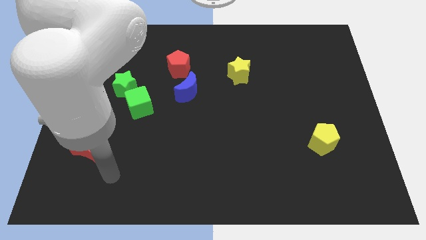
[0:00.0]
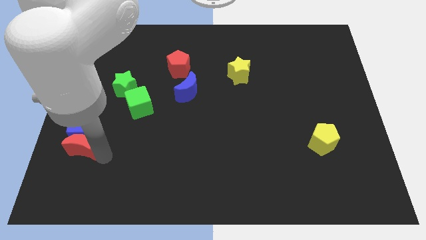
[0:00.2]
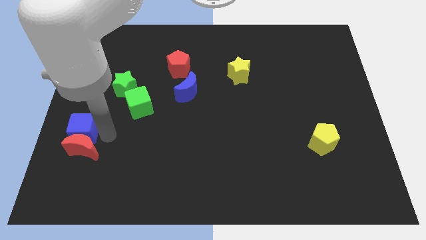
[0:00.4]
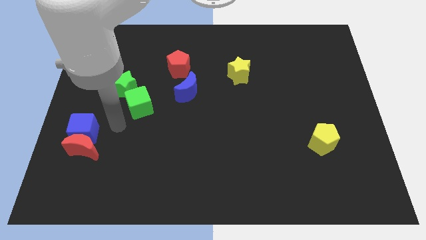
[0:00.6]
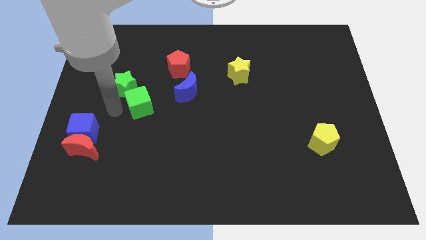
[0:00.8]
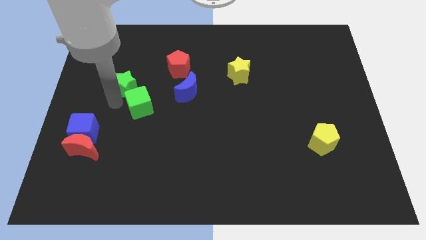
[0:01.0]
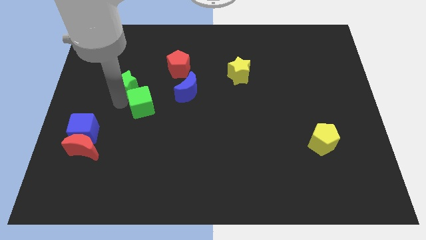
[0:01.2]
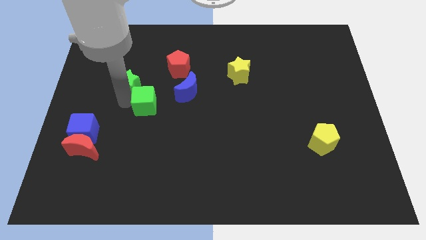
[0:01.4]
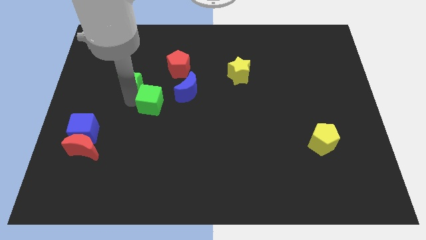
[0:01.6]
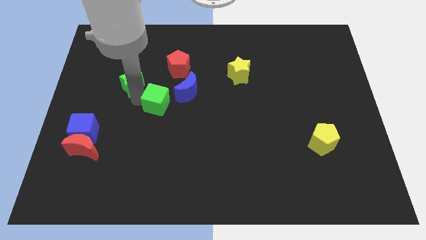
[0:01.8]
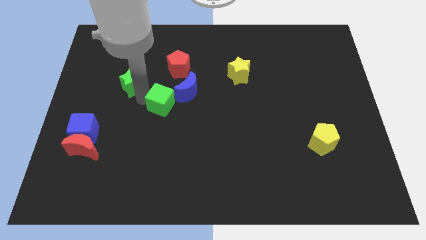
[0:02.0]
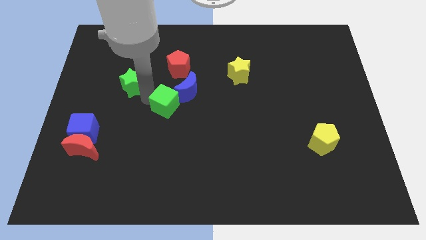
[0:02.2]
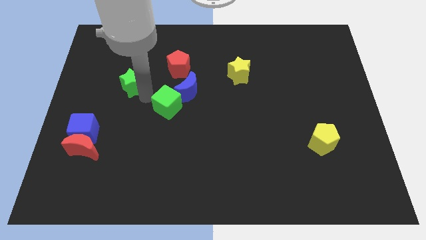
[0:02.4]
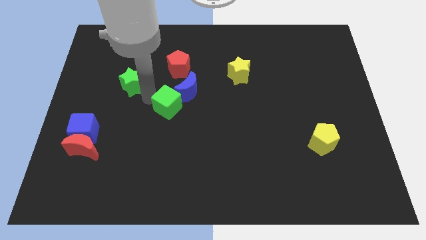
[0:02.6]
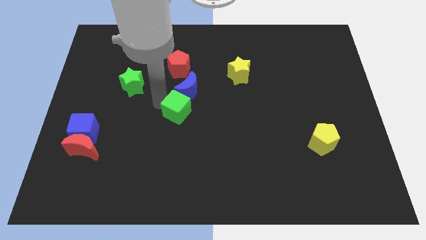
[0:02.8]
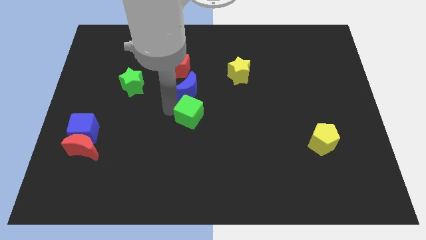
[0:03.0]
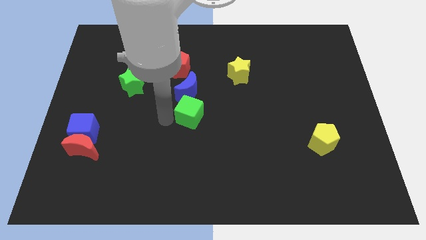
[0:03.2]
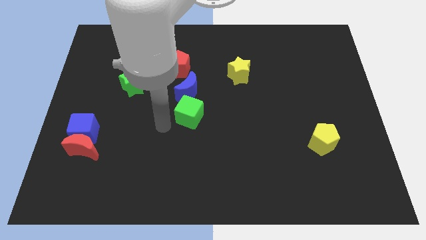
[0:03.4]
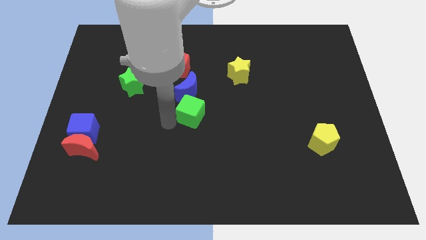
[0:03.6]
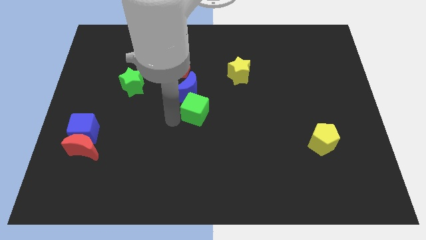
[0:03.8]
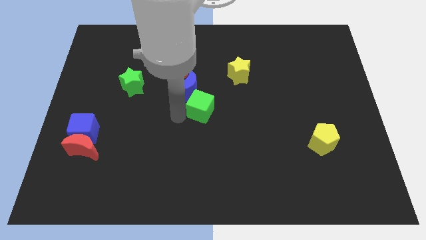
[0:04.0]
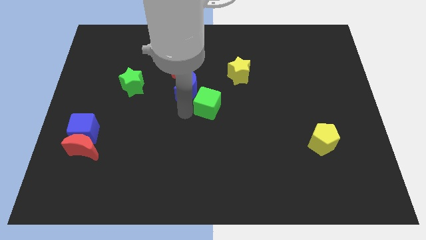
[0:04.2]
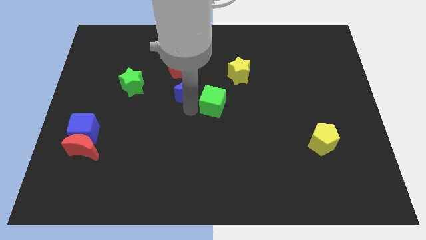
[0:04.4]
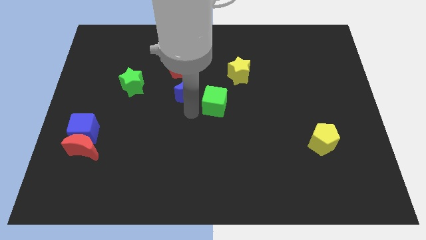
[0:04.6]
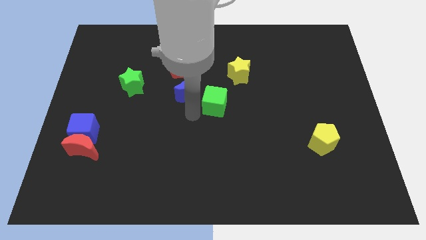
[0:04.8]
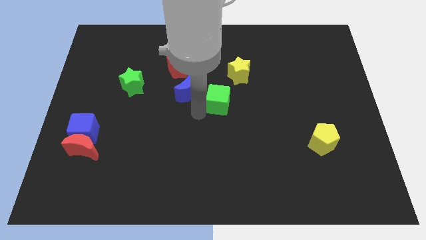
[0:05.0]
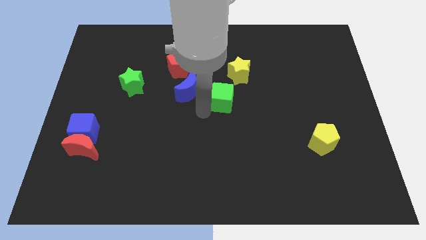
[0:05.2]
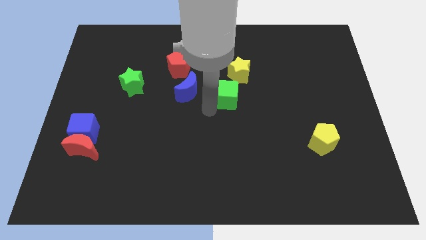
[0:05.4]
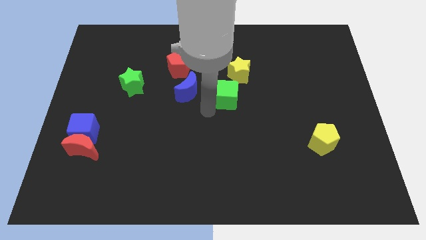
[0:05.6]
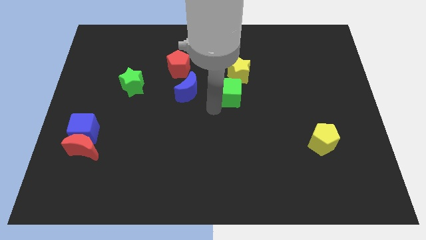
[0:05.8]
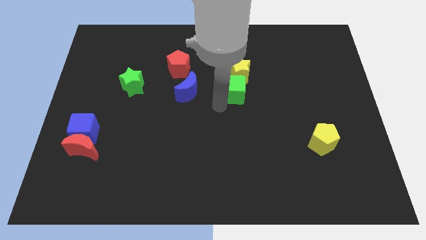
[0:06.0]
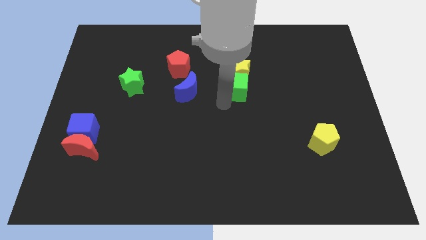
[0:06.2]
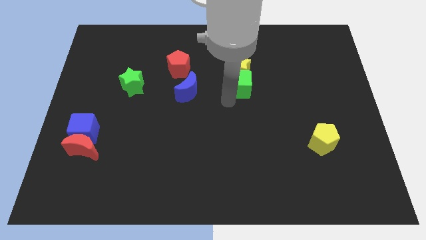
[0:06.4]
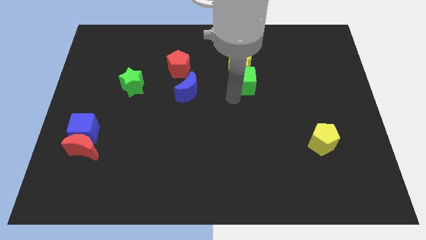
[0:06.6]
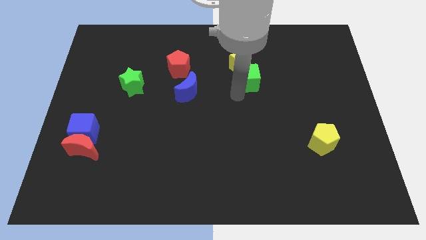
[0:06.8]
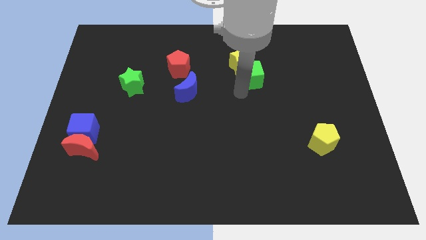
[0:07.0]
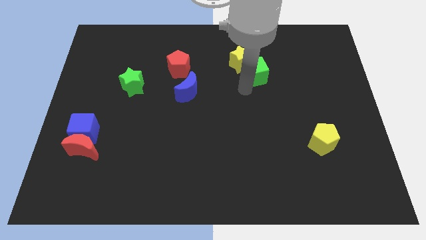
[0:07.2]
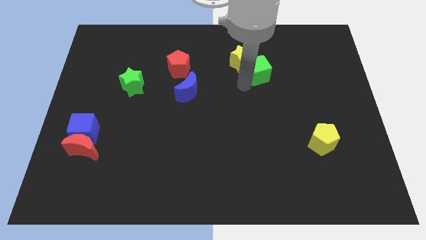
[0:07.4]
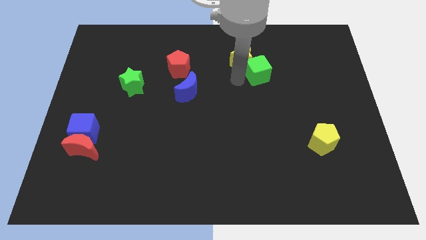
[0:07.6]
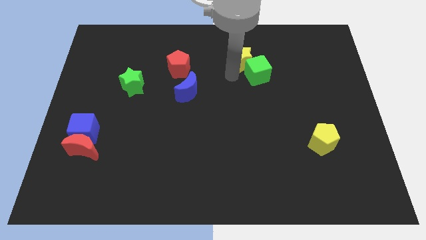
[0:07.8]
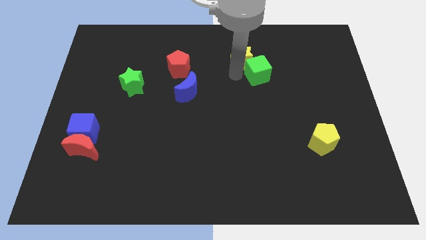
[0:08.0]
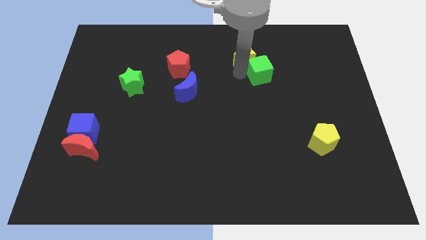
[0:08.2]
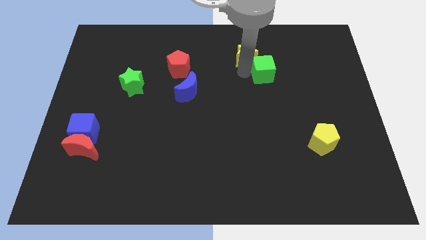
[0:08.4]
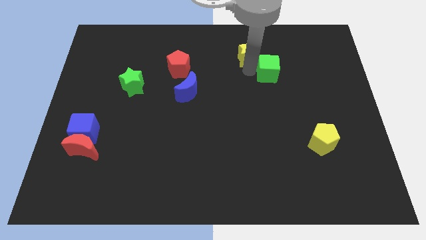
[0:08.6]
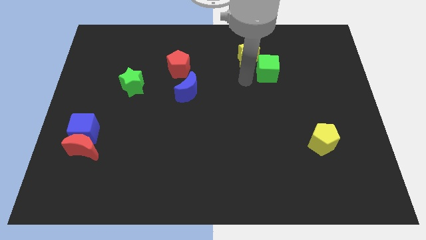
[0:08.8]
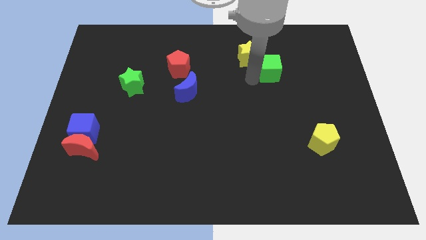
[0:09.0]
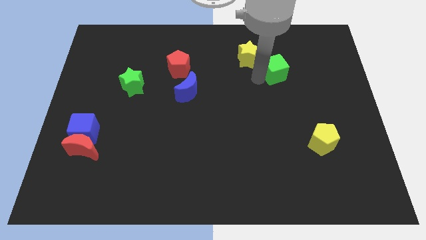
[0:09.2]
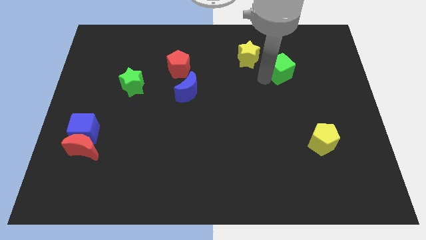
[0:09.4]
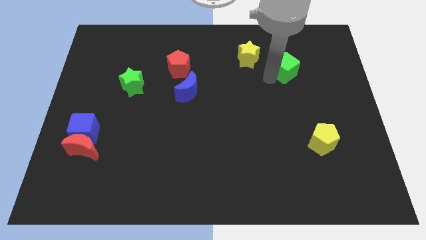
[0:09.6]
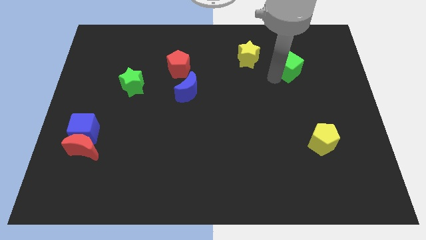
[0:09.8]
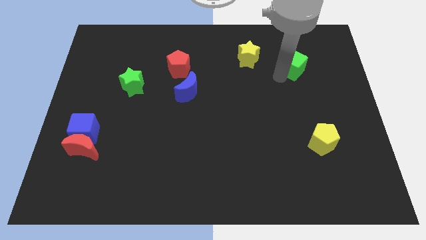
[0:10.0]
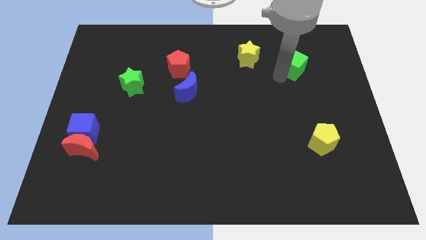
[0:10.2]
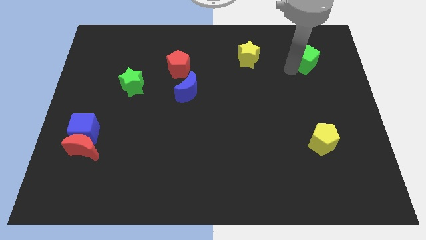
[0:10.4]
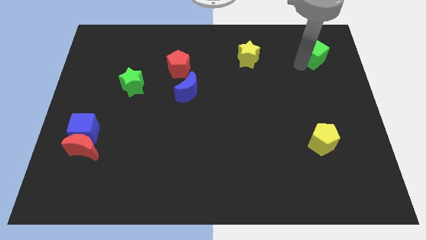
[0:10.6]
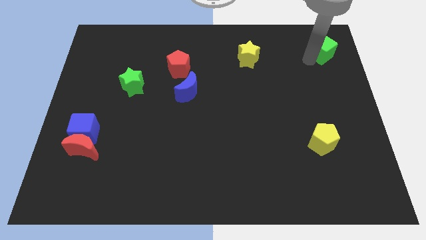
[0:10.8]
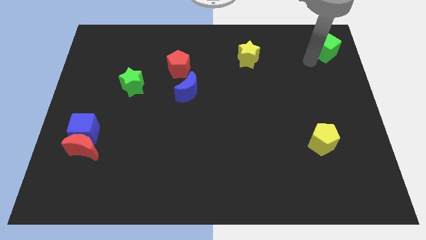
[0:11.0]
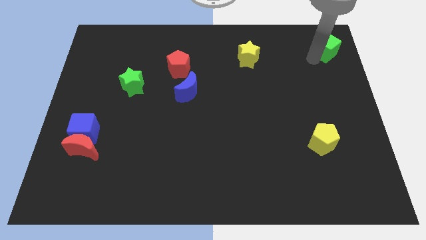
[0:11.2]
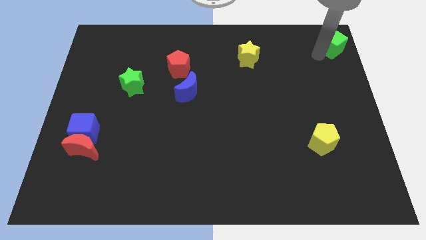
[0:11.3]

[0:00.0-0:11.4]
move the green cube to the upper right corner
